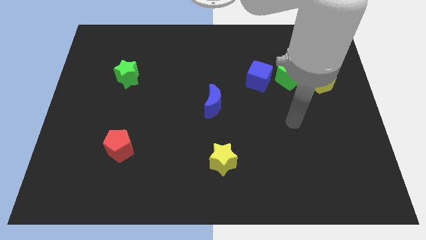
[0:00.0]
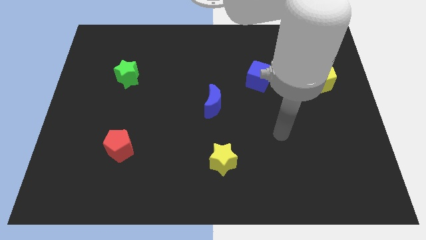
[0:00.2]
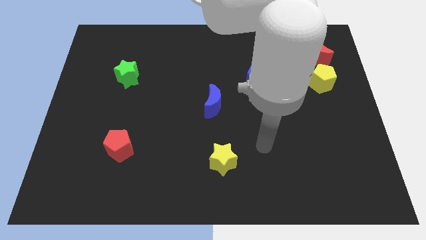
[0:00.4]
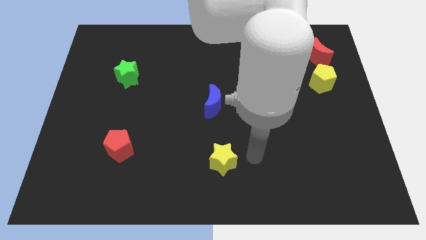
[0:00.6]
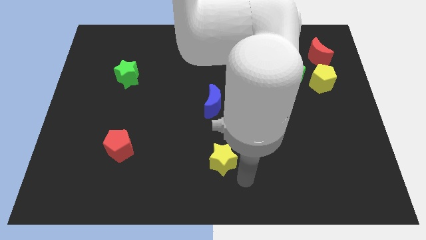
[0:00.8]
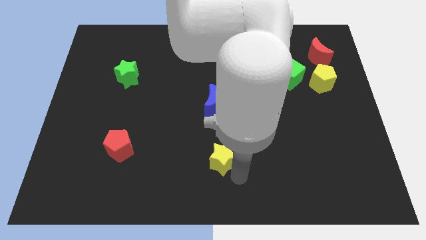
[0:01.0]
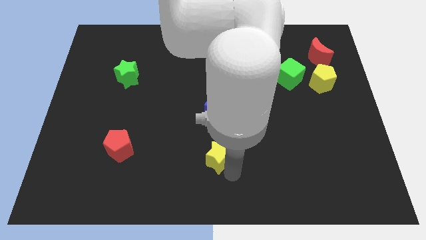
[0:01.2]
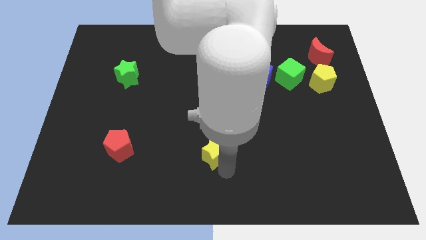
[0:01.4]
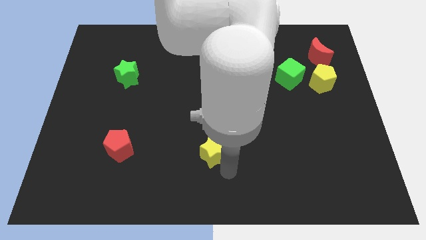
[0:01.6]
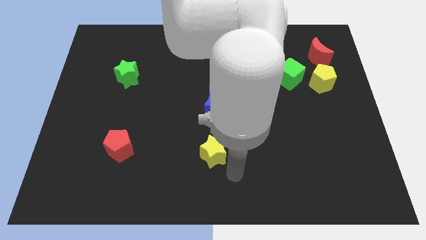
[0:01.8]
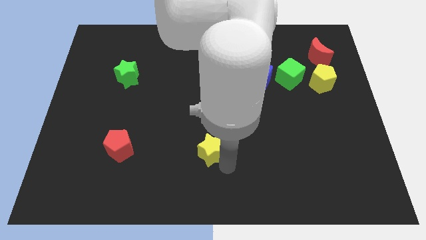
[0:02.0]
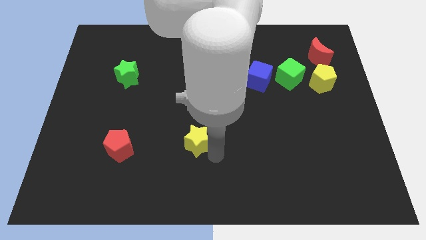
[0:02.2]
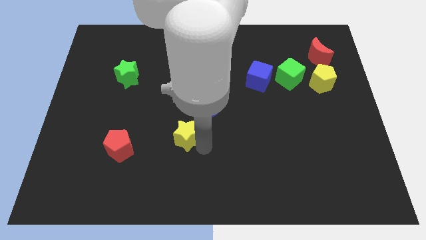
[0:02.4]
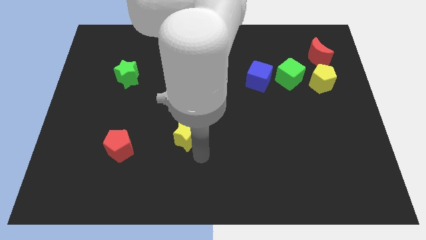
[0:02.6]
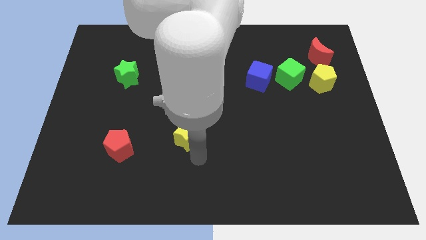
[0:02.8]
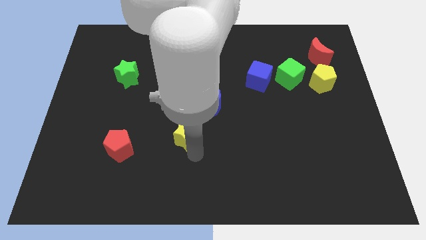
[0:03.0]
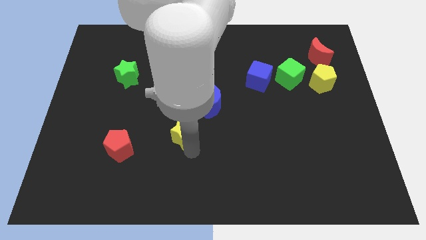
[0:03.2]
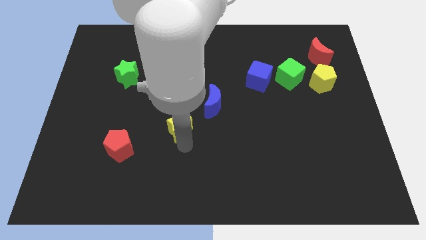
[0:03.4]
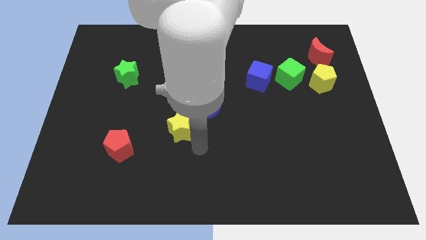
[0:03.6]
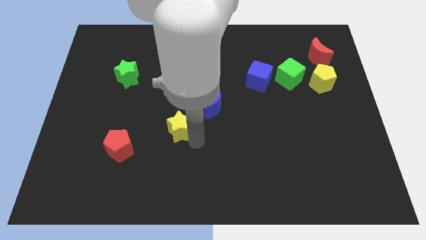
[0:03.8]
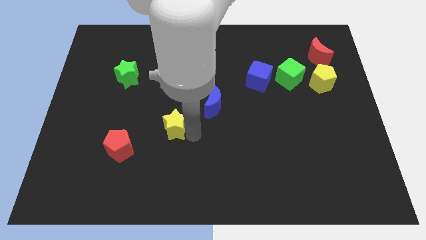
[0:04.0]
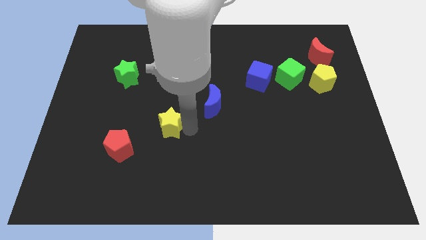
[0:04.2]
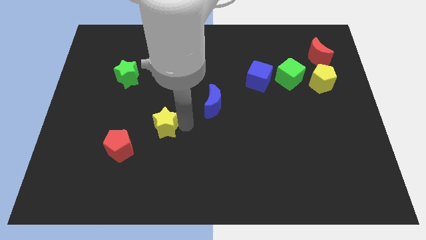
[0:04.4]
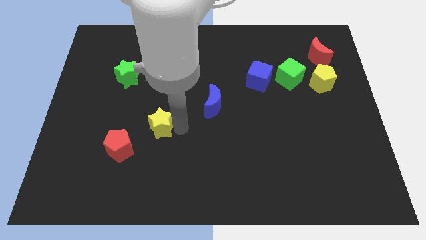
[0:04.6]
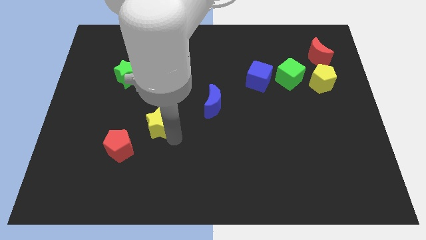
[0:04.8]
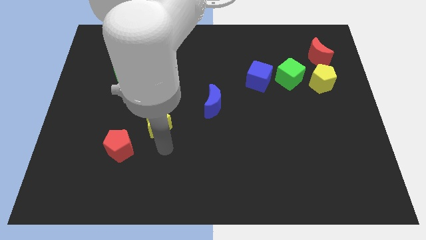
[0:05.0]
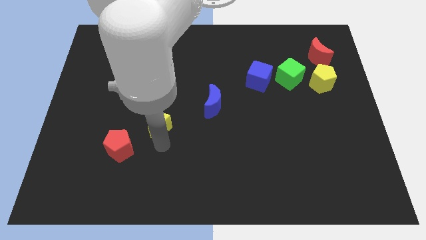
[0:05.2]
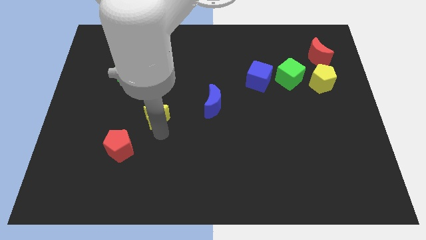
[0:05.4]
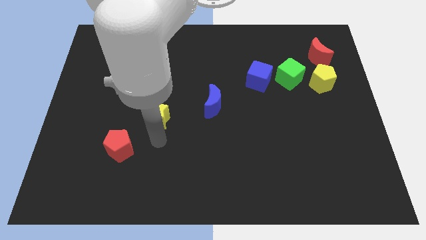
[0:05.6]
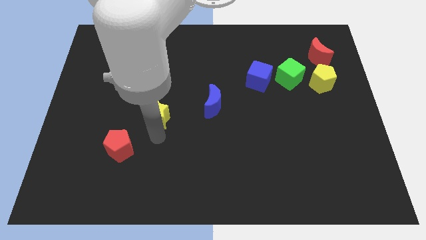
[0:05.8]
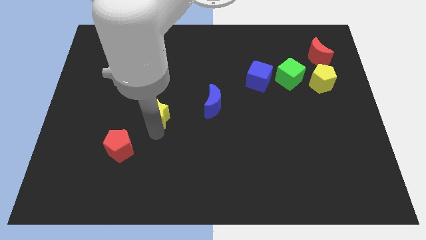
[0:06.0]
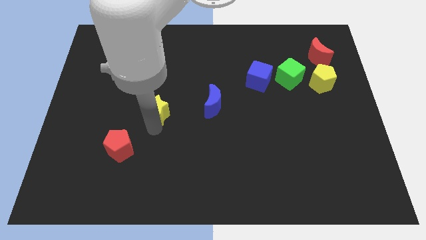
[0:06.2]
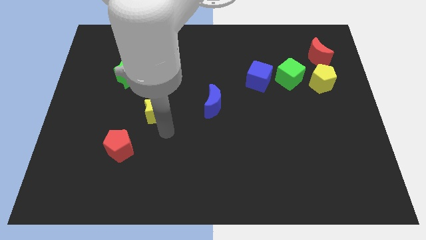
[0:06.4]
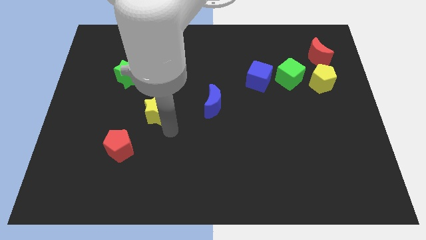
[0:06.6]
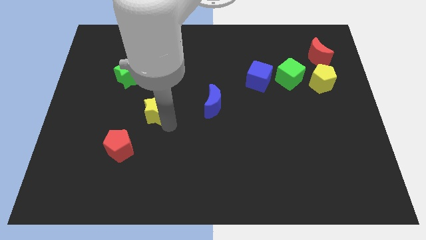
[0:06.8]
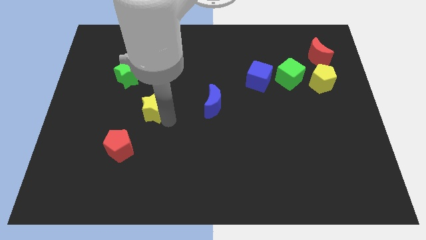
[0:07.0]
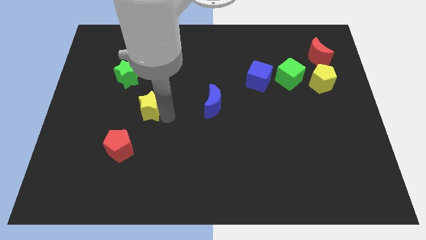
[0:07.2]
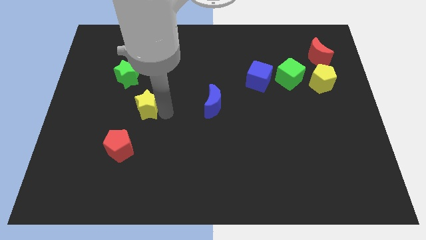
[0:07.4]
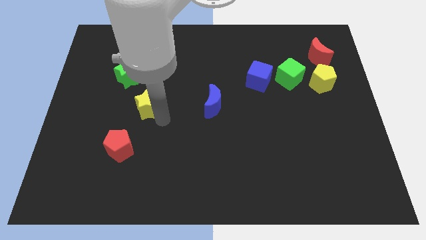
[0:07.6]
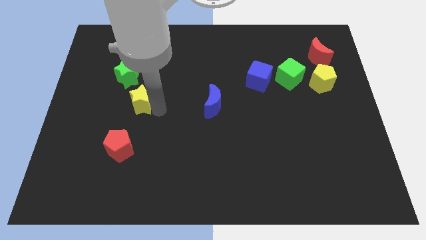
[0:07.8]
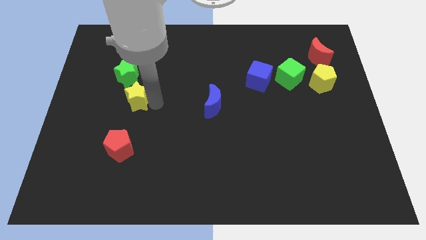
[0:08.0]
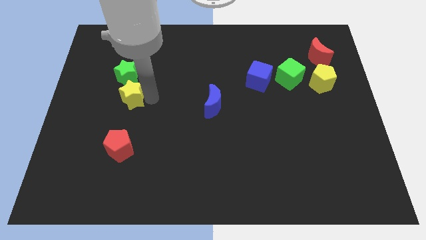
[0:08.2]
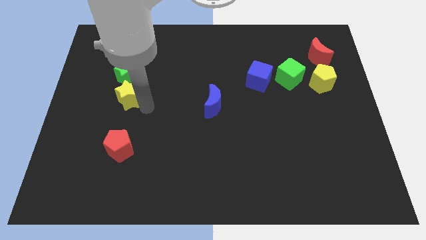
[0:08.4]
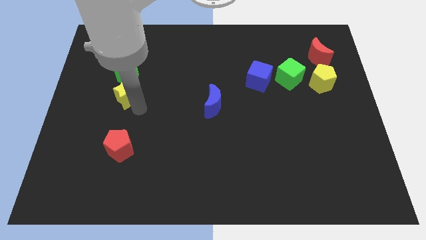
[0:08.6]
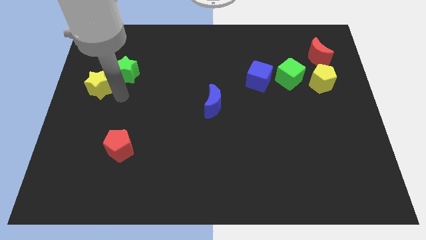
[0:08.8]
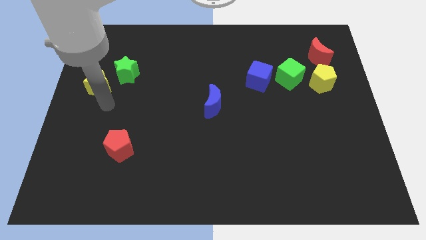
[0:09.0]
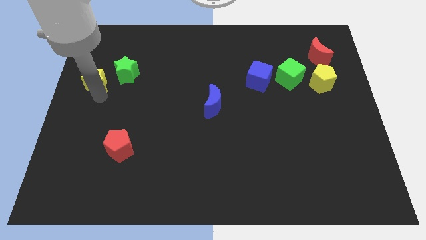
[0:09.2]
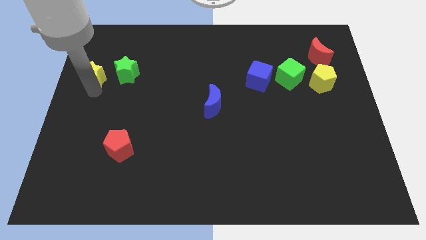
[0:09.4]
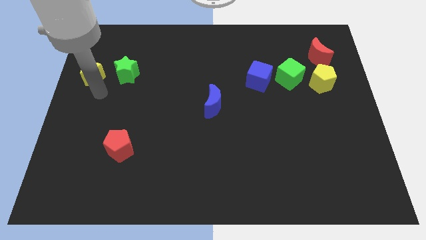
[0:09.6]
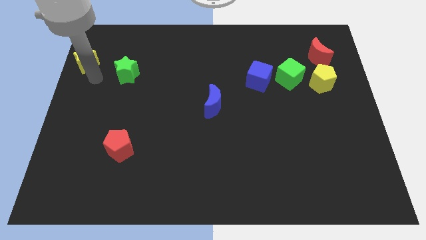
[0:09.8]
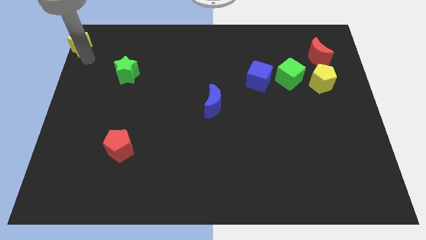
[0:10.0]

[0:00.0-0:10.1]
put the yellow star to the top left of the board

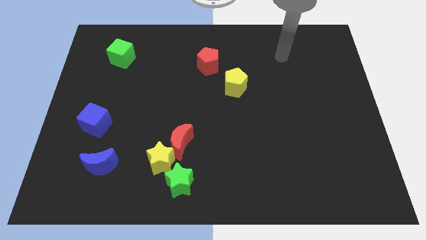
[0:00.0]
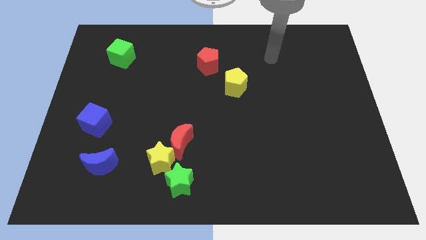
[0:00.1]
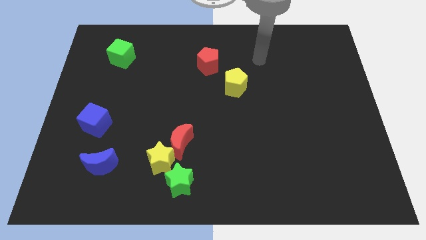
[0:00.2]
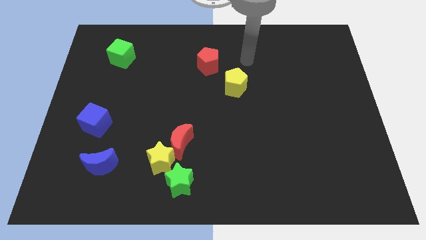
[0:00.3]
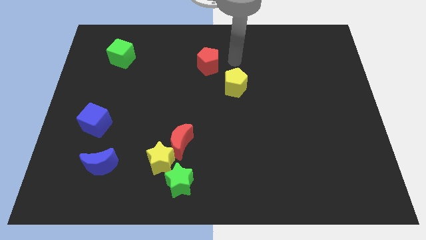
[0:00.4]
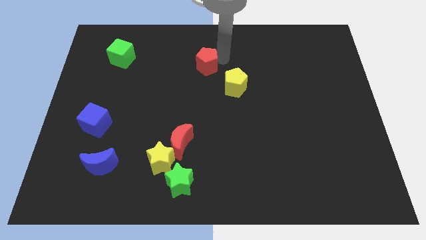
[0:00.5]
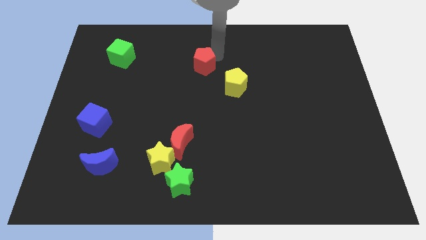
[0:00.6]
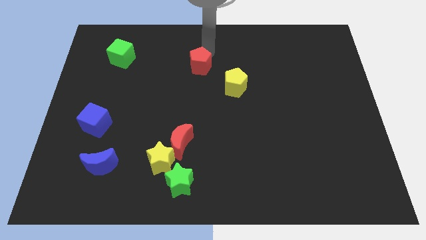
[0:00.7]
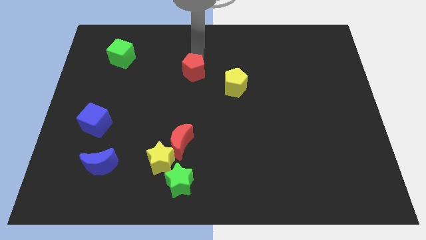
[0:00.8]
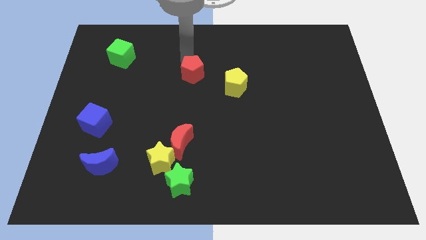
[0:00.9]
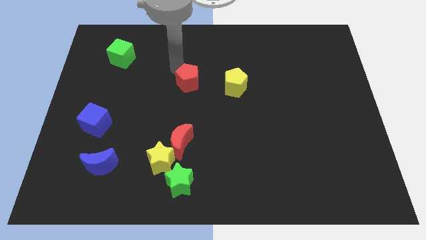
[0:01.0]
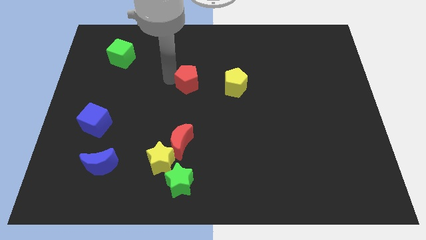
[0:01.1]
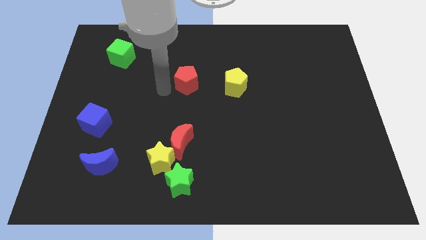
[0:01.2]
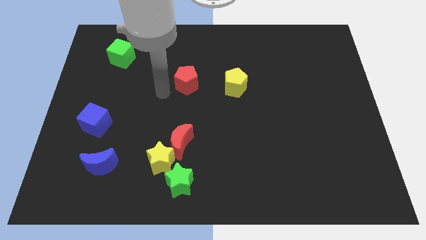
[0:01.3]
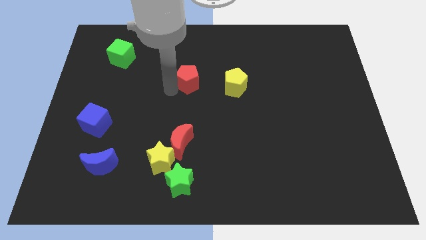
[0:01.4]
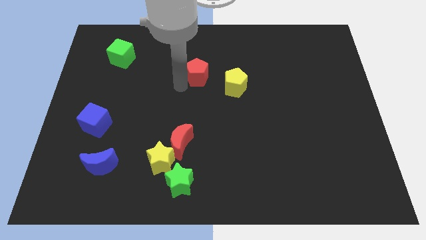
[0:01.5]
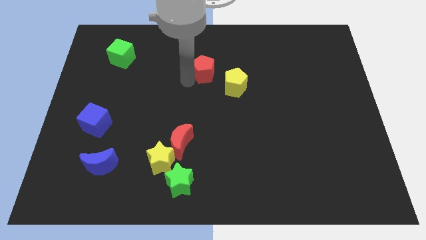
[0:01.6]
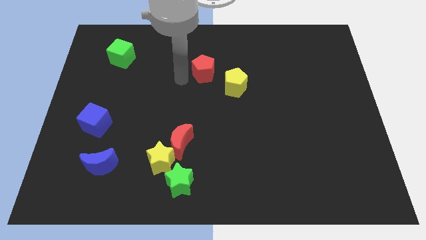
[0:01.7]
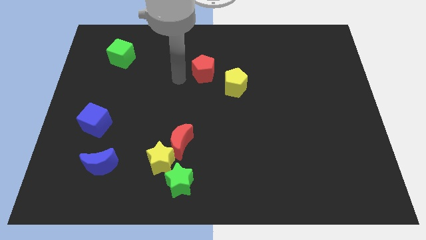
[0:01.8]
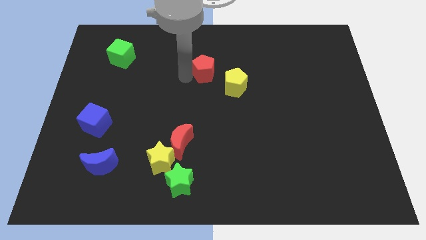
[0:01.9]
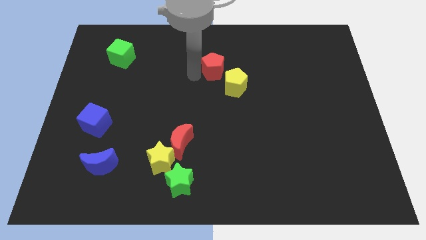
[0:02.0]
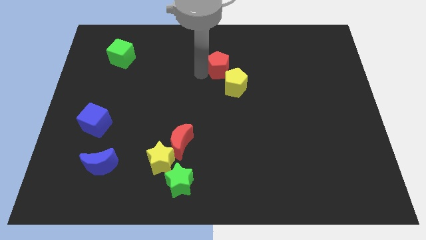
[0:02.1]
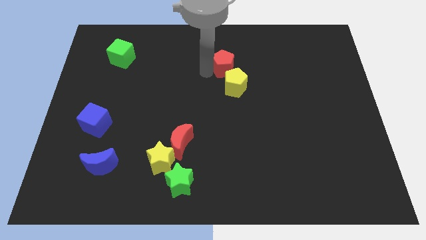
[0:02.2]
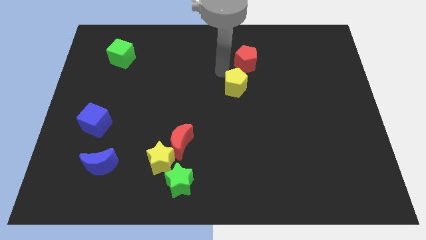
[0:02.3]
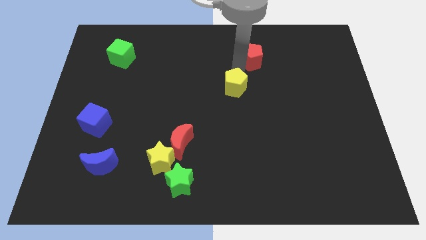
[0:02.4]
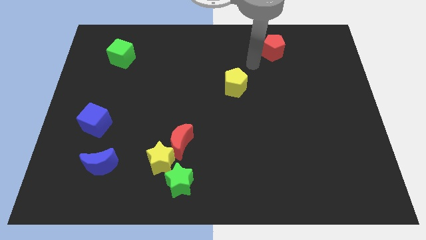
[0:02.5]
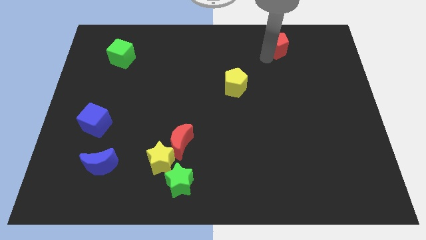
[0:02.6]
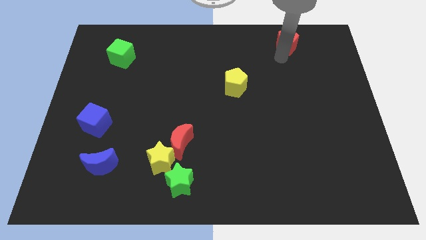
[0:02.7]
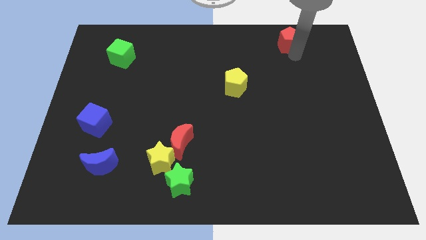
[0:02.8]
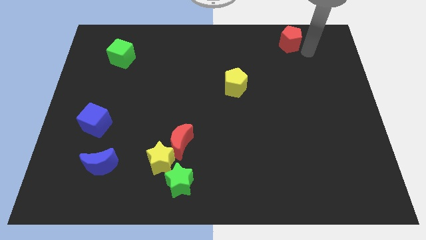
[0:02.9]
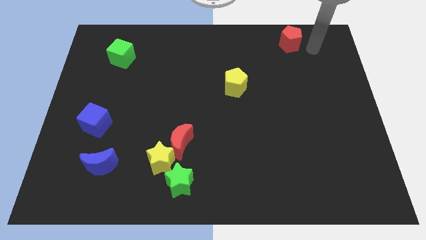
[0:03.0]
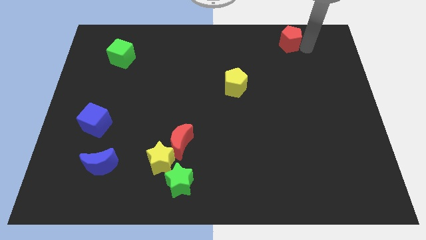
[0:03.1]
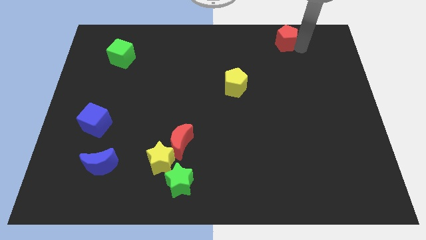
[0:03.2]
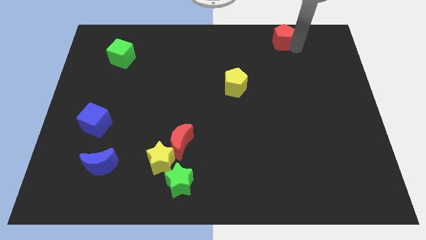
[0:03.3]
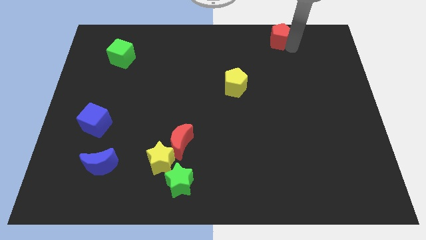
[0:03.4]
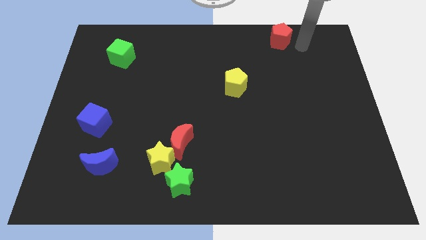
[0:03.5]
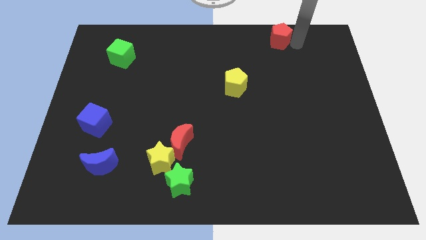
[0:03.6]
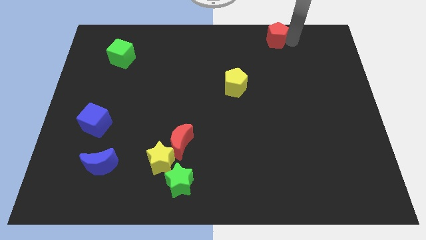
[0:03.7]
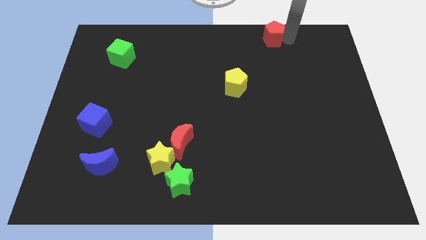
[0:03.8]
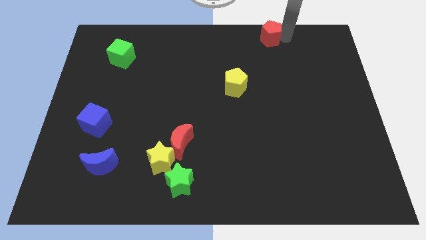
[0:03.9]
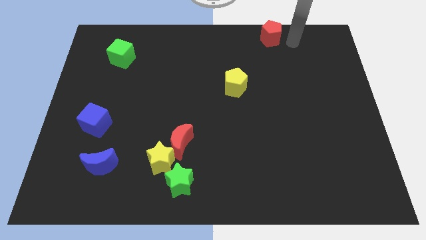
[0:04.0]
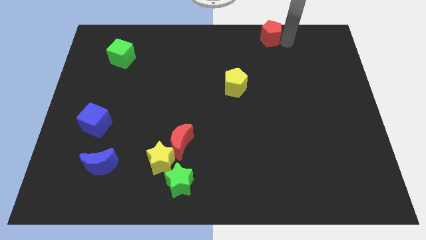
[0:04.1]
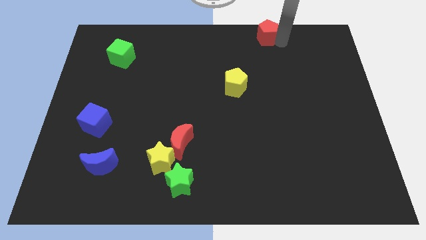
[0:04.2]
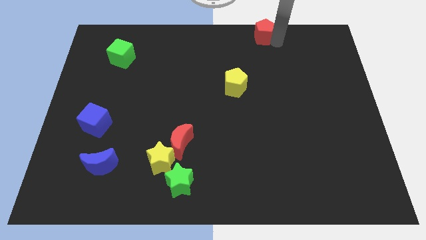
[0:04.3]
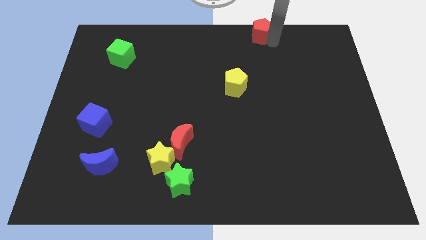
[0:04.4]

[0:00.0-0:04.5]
put the red pentagon to the towards your base
